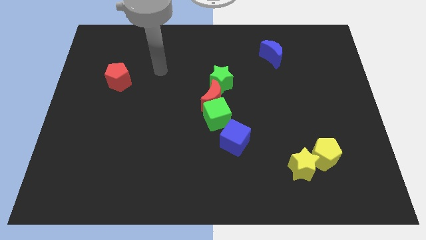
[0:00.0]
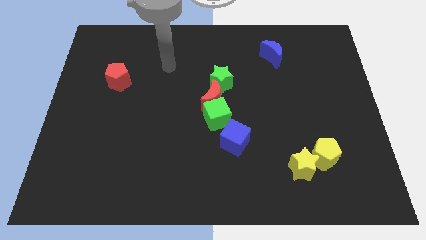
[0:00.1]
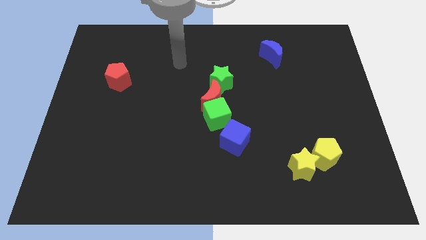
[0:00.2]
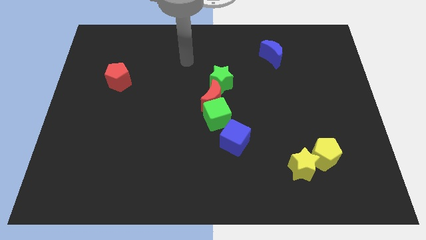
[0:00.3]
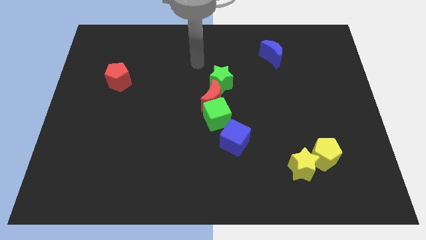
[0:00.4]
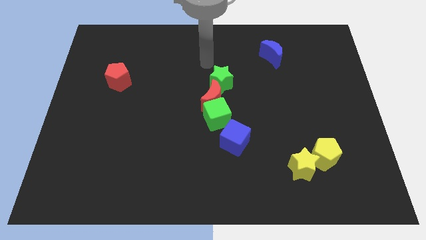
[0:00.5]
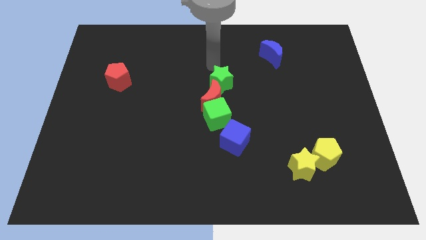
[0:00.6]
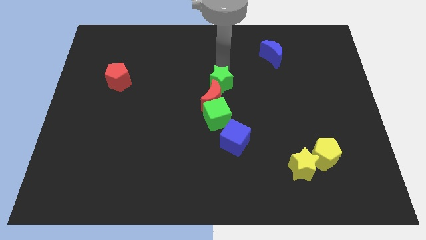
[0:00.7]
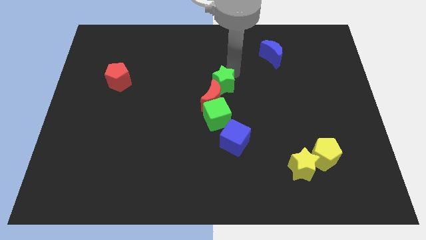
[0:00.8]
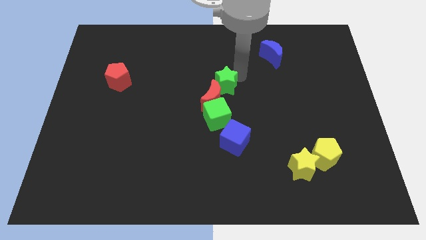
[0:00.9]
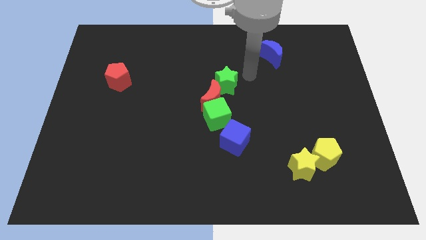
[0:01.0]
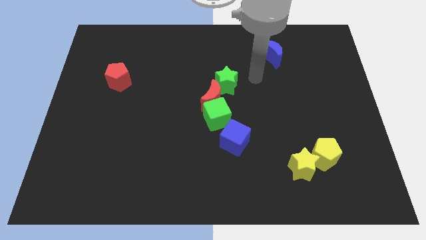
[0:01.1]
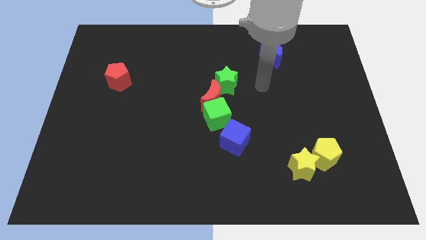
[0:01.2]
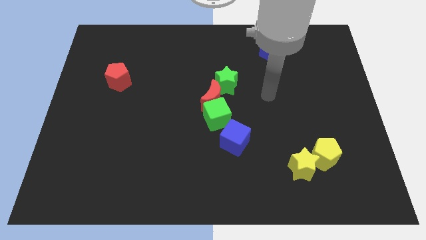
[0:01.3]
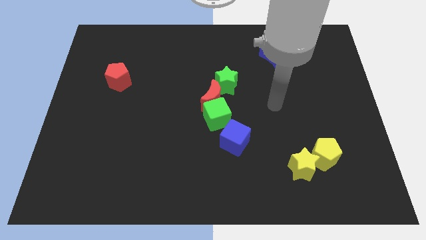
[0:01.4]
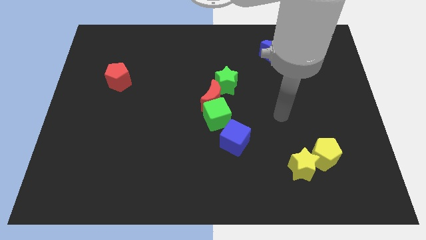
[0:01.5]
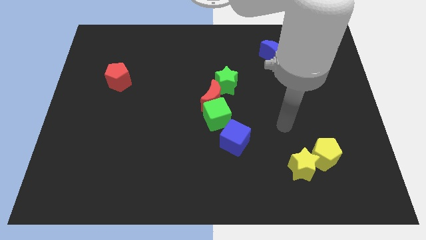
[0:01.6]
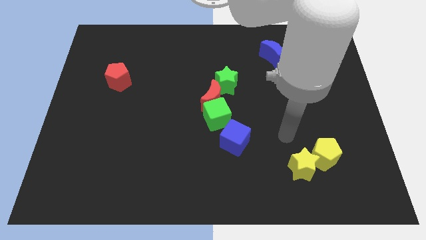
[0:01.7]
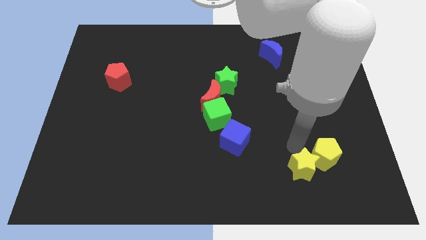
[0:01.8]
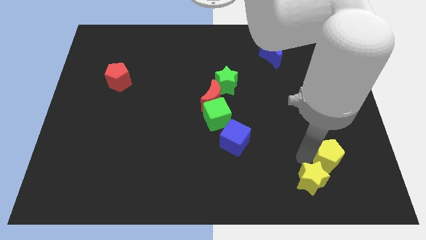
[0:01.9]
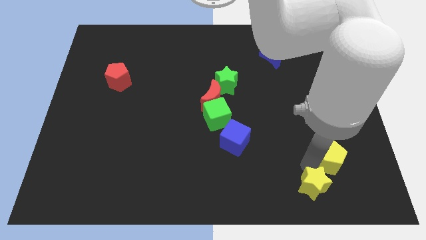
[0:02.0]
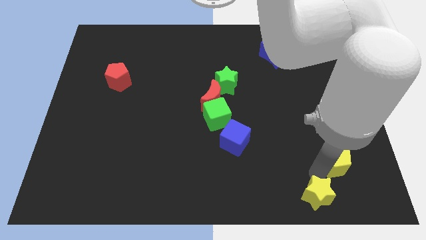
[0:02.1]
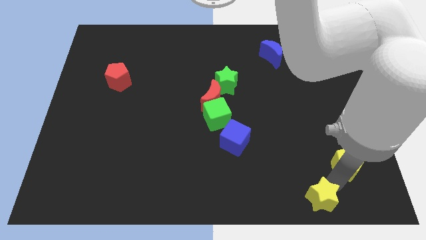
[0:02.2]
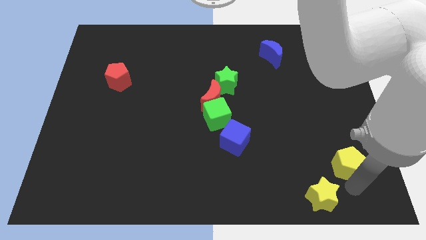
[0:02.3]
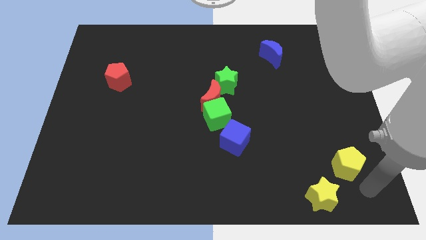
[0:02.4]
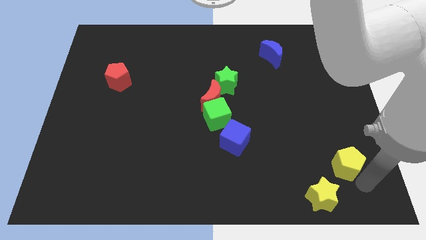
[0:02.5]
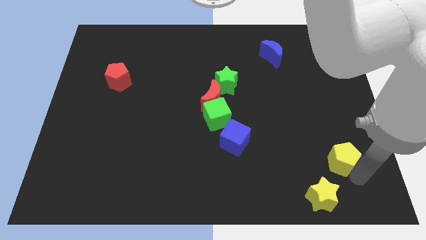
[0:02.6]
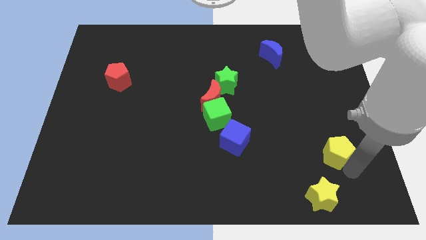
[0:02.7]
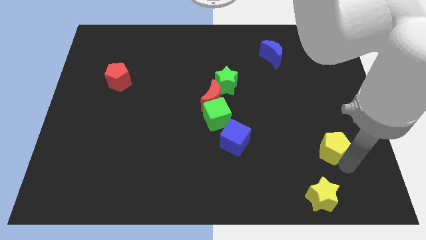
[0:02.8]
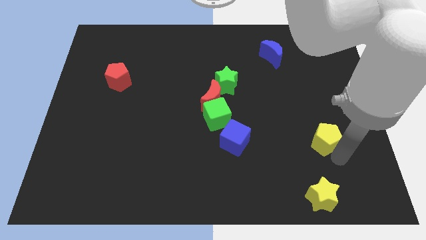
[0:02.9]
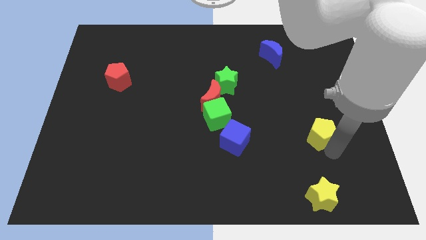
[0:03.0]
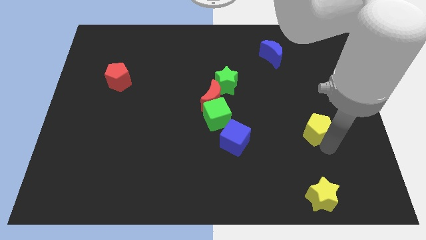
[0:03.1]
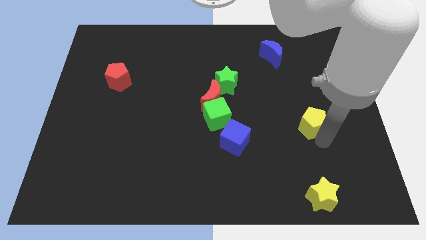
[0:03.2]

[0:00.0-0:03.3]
slightly push the yellow pentagon up

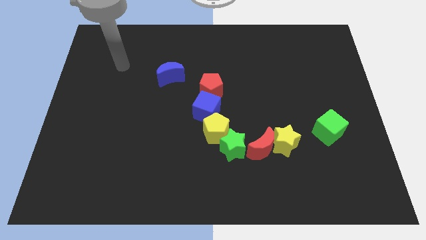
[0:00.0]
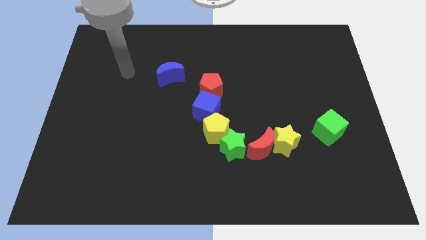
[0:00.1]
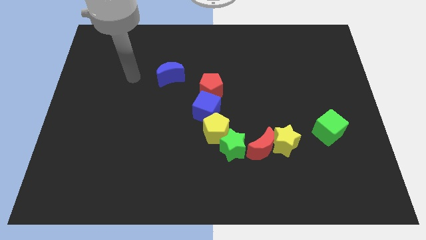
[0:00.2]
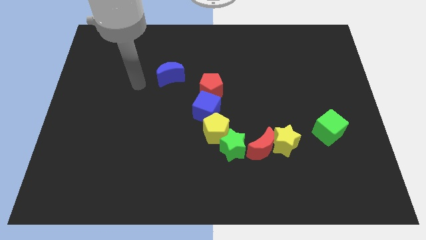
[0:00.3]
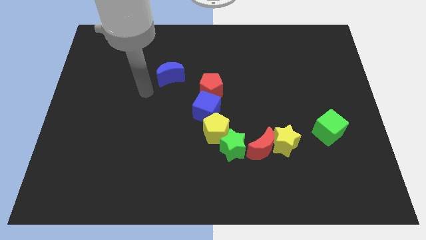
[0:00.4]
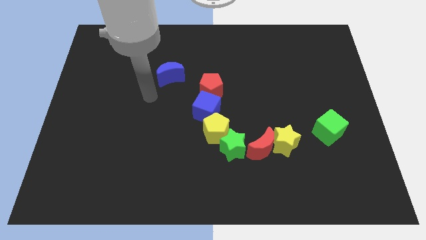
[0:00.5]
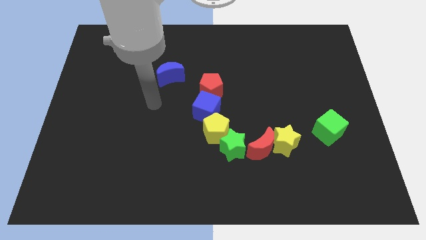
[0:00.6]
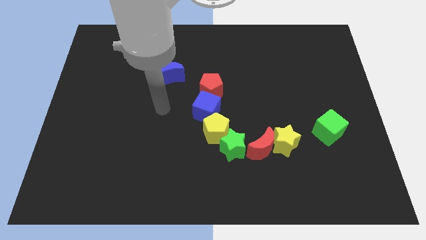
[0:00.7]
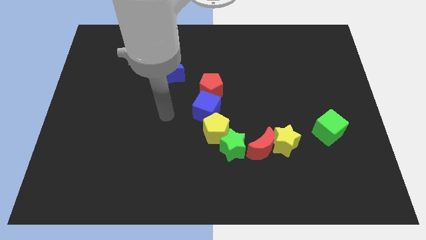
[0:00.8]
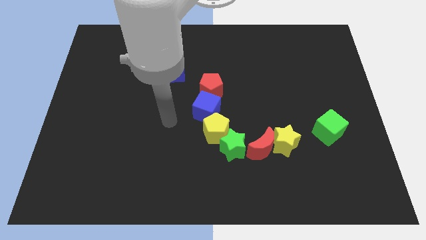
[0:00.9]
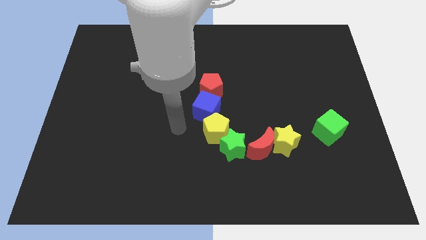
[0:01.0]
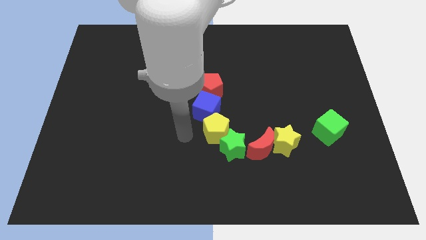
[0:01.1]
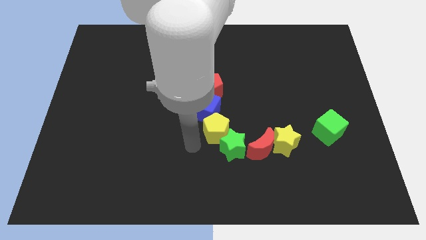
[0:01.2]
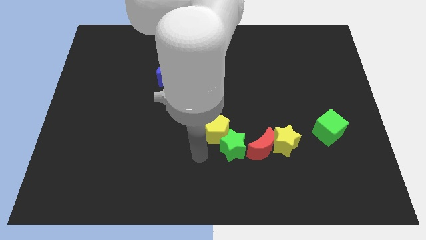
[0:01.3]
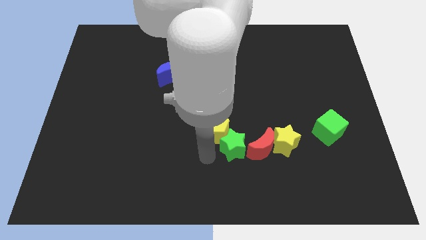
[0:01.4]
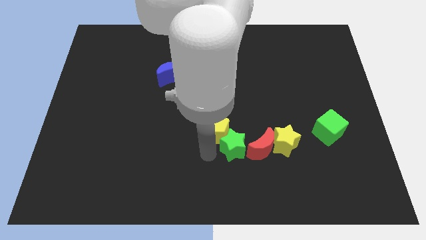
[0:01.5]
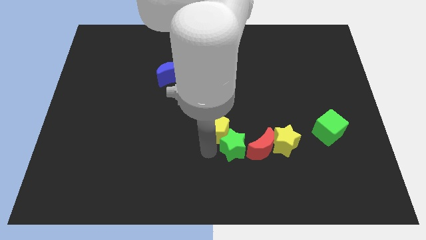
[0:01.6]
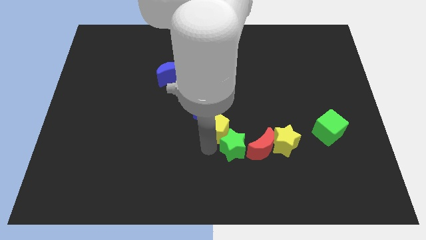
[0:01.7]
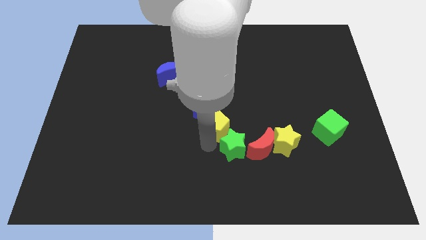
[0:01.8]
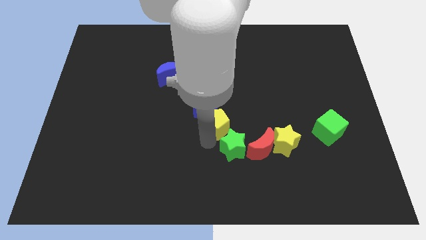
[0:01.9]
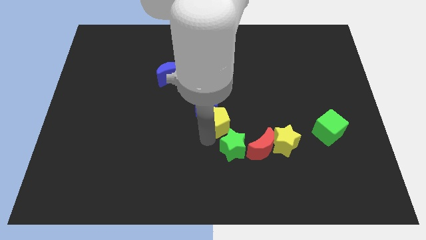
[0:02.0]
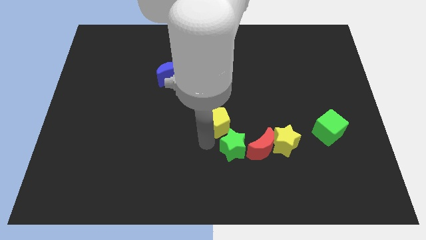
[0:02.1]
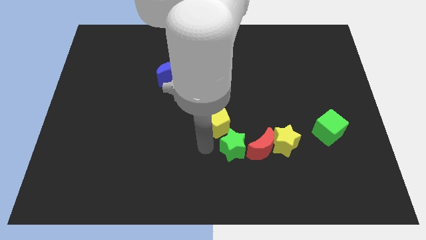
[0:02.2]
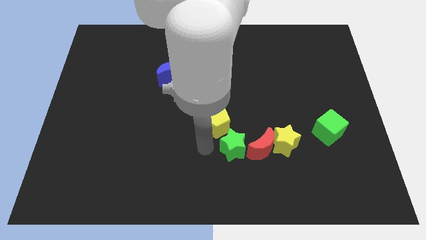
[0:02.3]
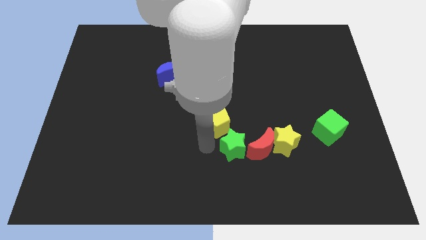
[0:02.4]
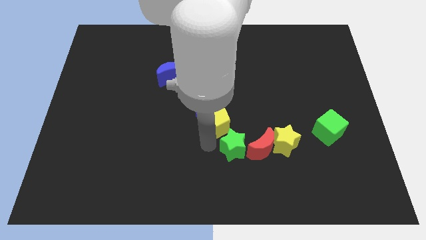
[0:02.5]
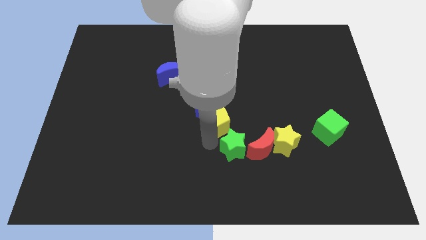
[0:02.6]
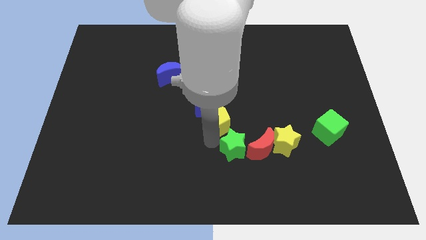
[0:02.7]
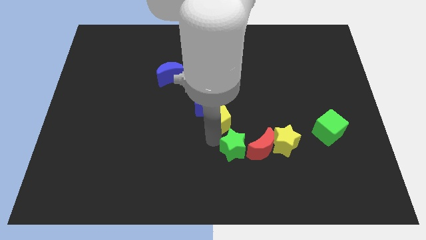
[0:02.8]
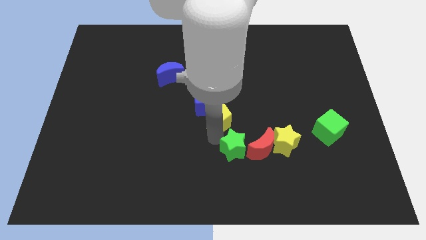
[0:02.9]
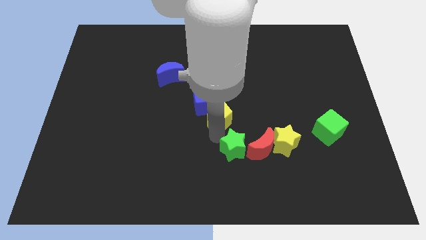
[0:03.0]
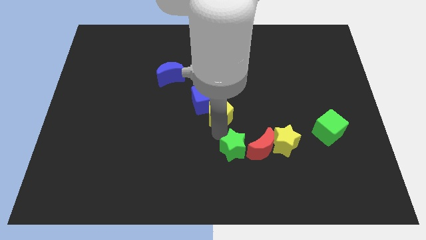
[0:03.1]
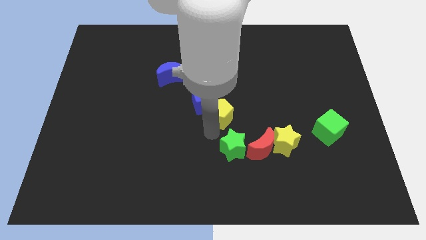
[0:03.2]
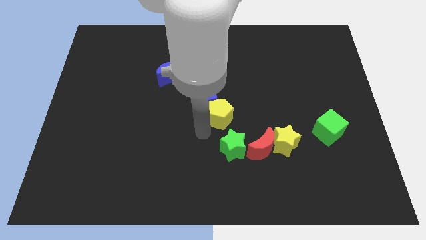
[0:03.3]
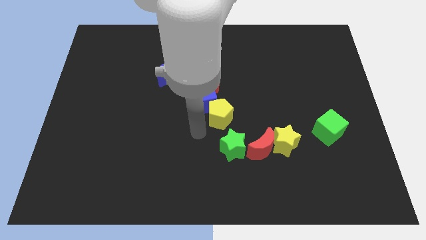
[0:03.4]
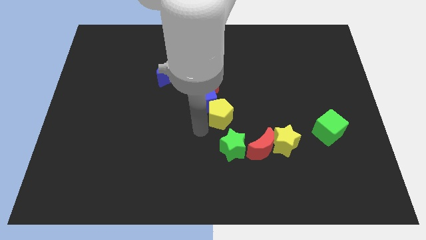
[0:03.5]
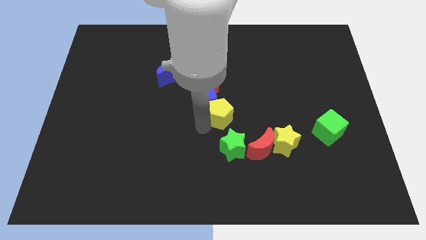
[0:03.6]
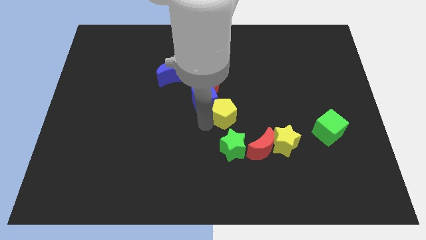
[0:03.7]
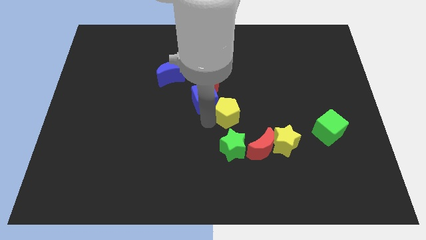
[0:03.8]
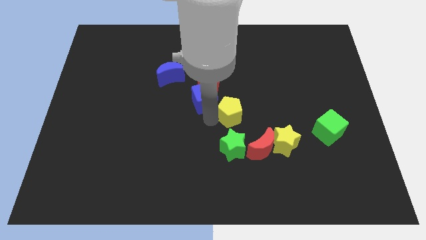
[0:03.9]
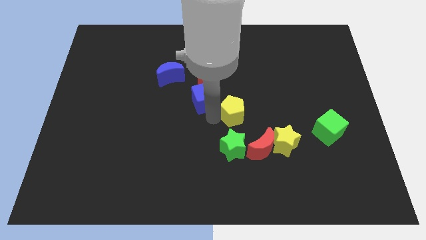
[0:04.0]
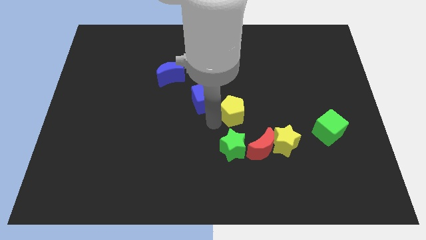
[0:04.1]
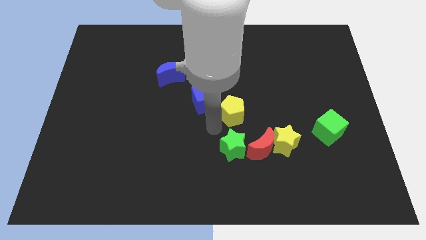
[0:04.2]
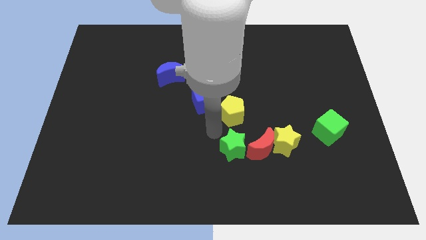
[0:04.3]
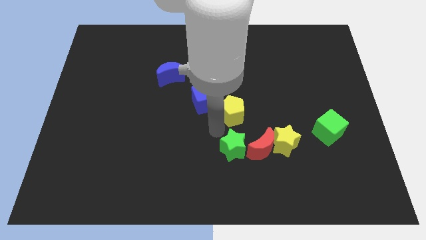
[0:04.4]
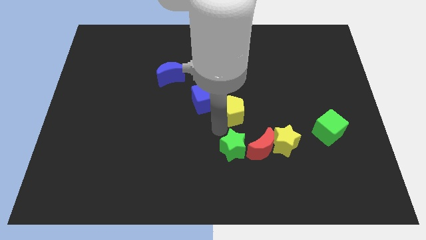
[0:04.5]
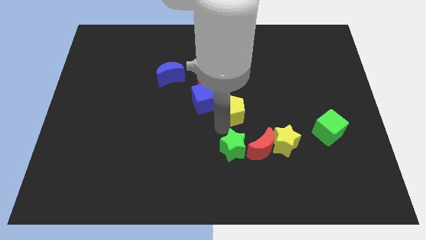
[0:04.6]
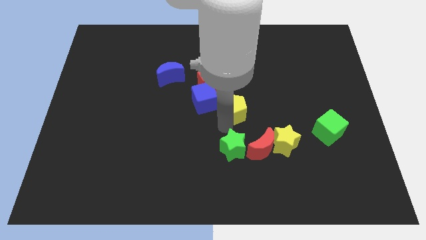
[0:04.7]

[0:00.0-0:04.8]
slightly slide the yellow pentagon diagonally upwards and to the right
